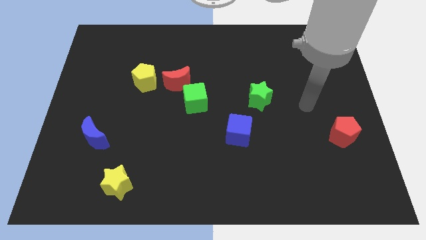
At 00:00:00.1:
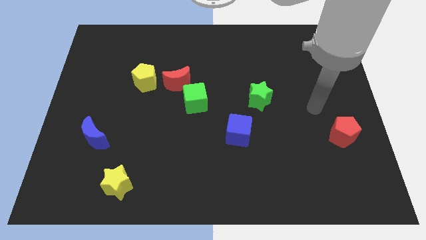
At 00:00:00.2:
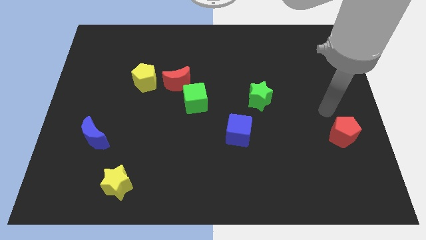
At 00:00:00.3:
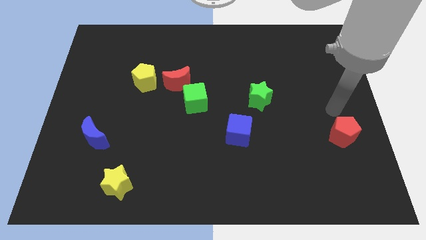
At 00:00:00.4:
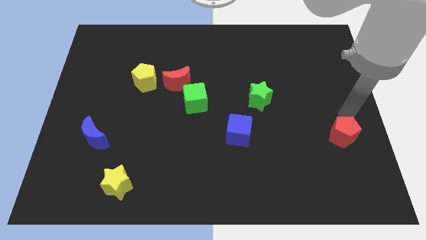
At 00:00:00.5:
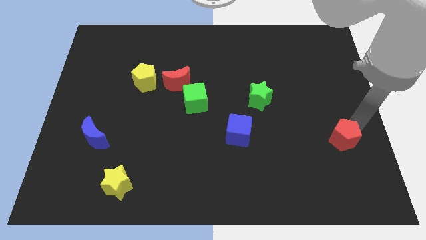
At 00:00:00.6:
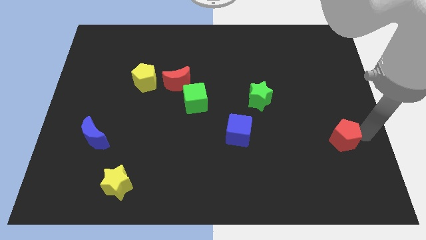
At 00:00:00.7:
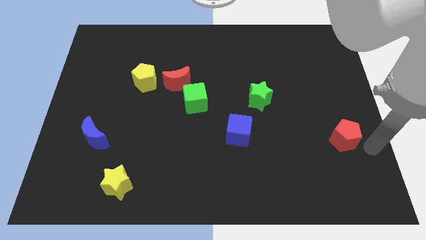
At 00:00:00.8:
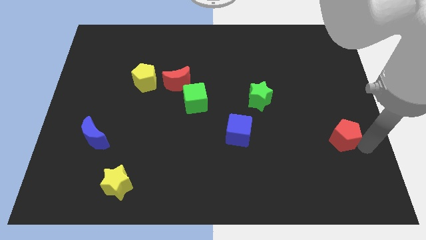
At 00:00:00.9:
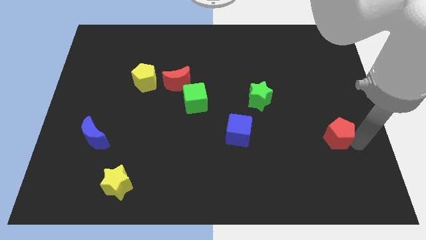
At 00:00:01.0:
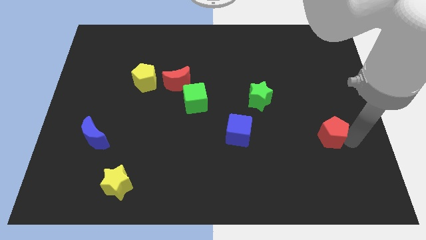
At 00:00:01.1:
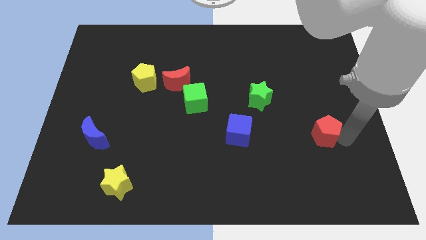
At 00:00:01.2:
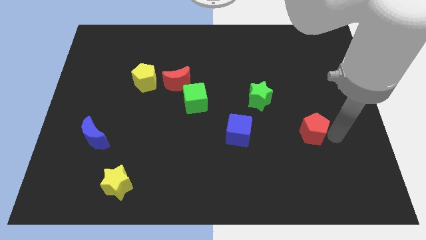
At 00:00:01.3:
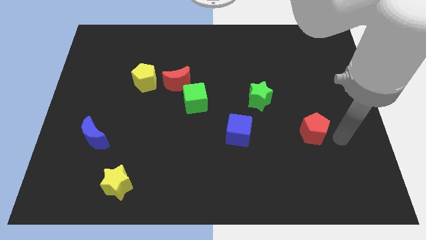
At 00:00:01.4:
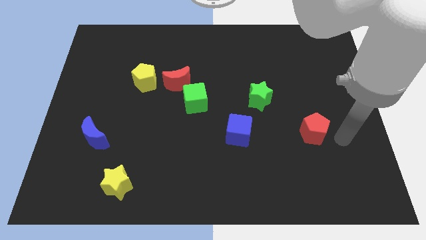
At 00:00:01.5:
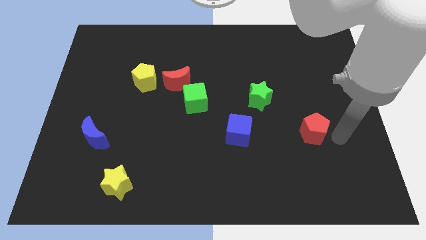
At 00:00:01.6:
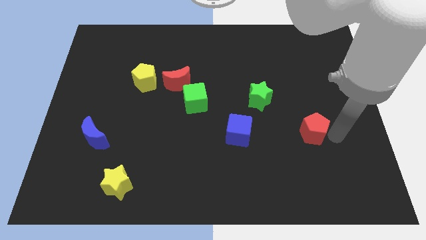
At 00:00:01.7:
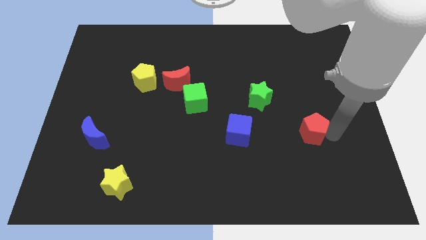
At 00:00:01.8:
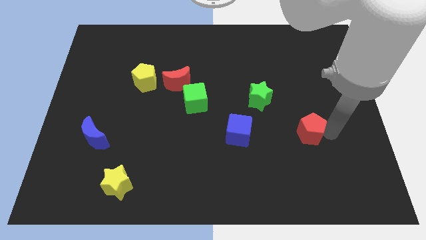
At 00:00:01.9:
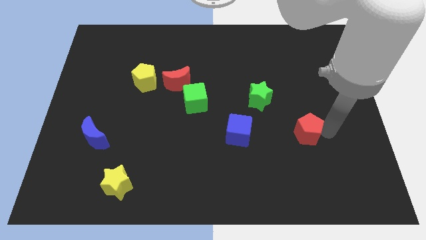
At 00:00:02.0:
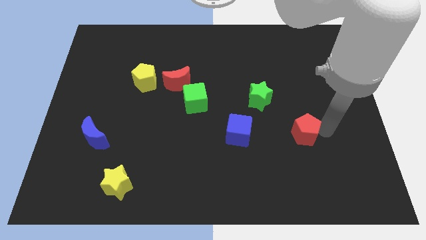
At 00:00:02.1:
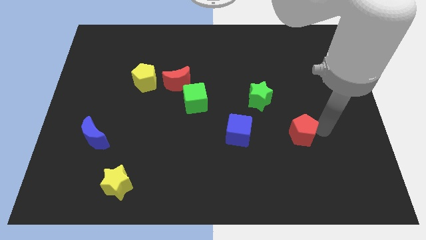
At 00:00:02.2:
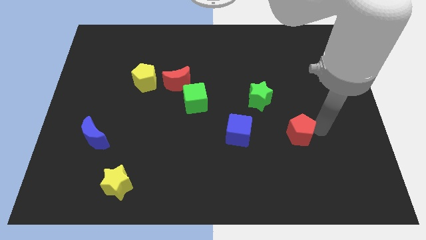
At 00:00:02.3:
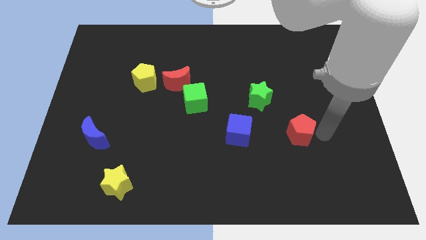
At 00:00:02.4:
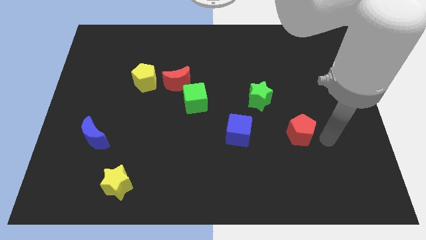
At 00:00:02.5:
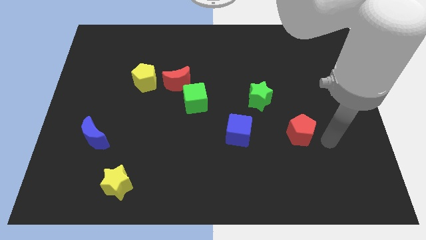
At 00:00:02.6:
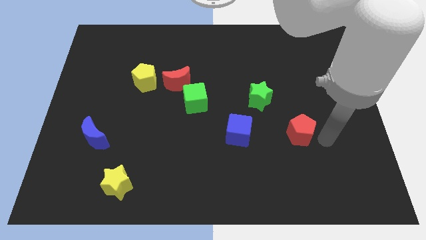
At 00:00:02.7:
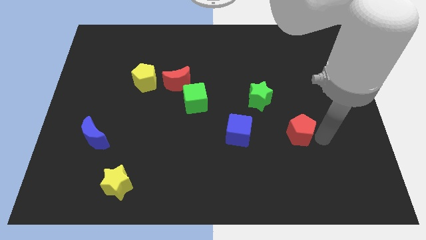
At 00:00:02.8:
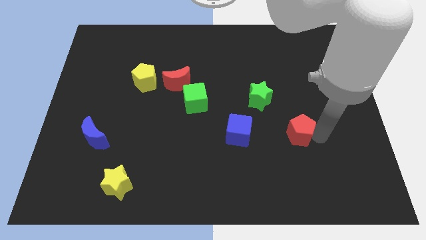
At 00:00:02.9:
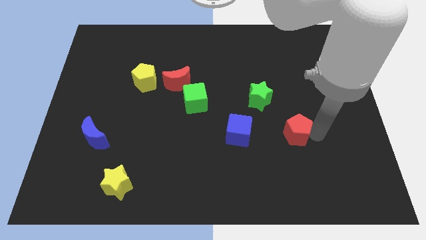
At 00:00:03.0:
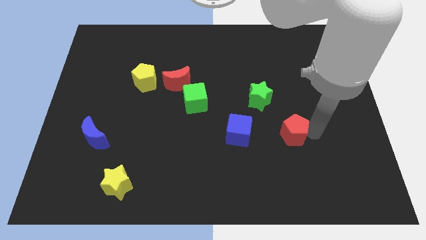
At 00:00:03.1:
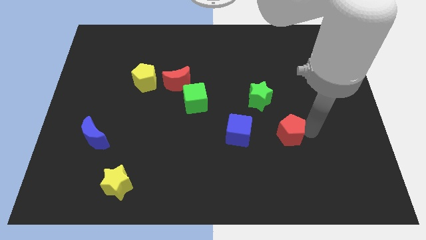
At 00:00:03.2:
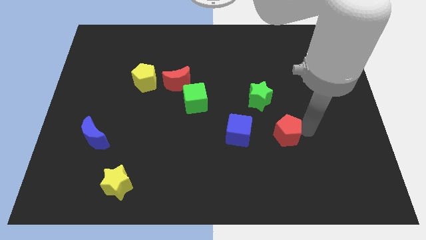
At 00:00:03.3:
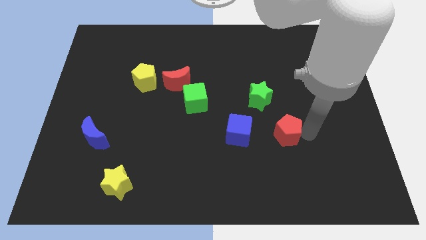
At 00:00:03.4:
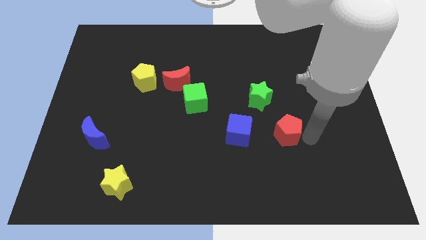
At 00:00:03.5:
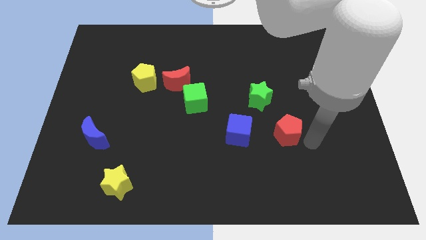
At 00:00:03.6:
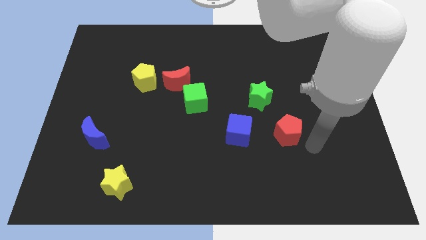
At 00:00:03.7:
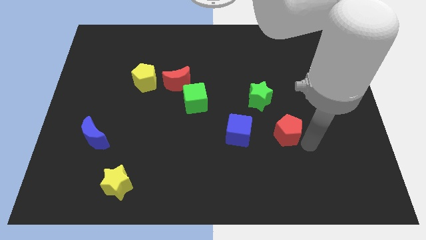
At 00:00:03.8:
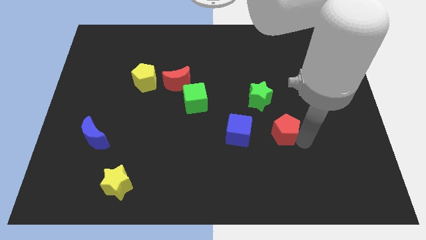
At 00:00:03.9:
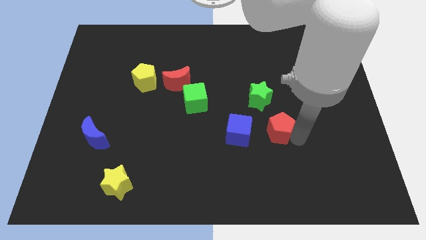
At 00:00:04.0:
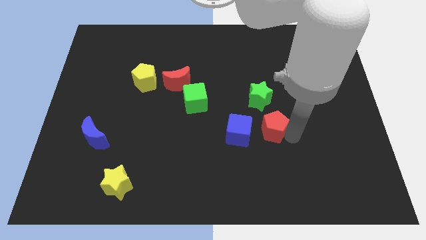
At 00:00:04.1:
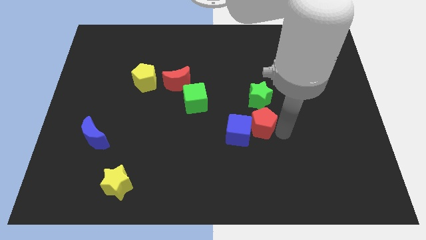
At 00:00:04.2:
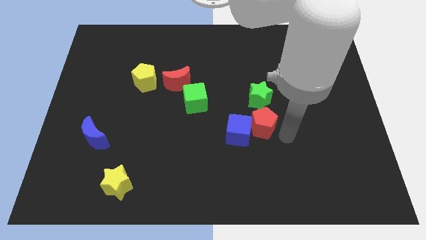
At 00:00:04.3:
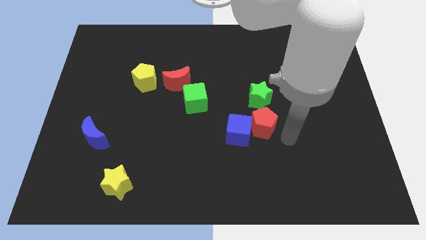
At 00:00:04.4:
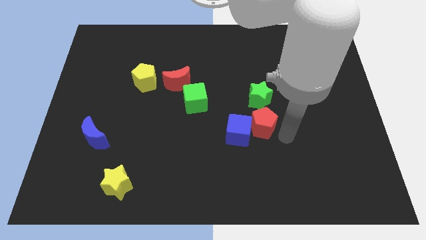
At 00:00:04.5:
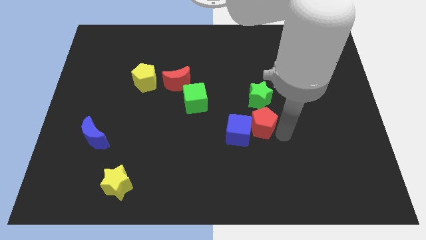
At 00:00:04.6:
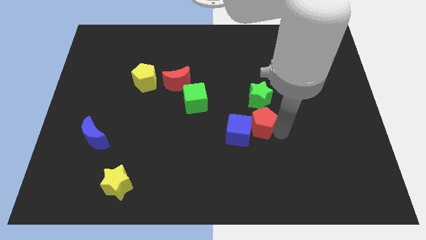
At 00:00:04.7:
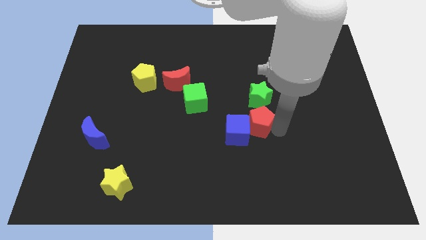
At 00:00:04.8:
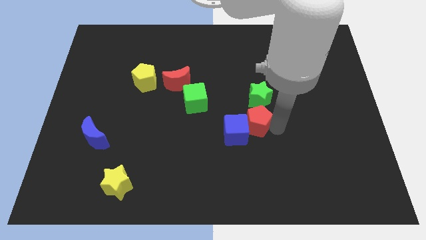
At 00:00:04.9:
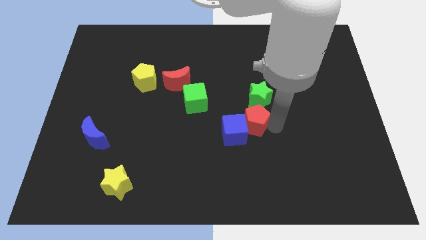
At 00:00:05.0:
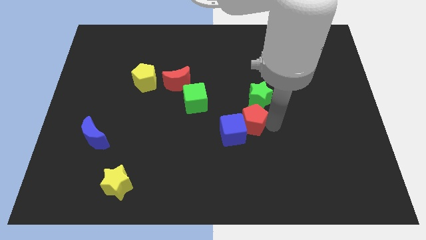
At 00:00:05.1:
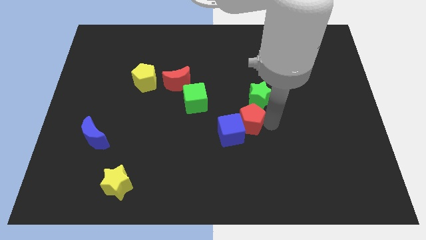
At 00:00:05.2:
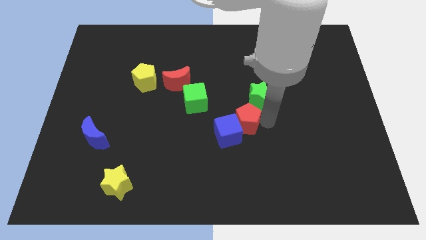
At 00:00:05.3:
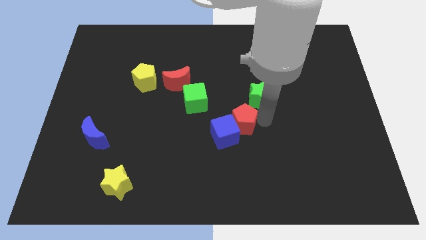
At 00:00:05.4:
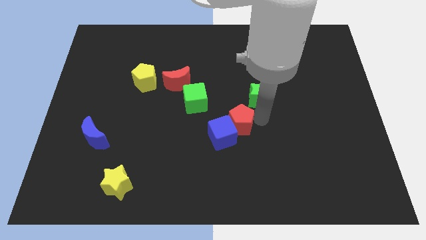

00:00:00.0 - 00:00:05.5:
push the red pentagon to the bottom right side of the green cube

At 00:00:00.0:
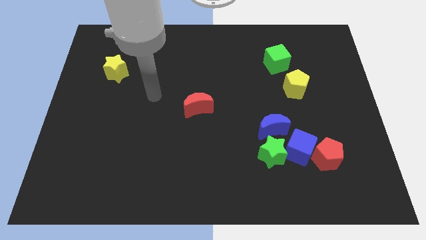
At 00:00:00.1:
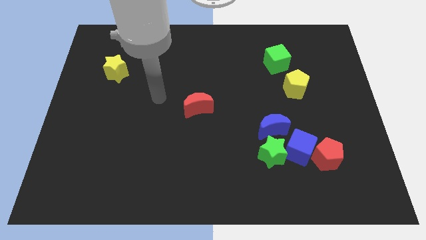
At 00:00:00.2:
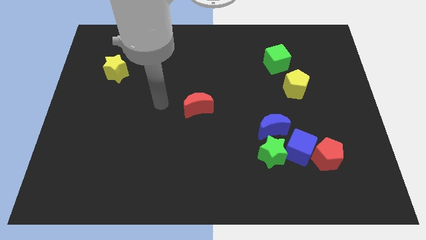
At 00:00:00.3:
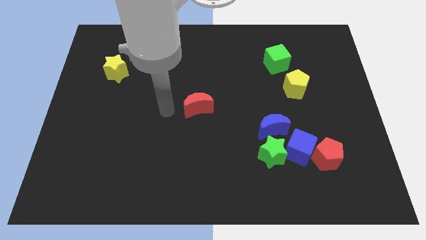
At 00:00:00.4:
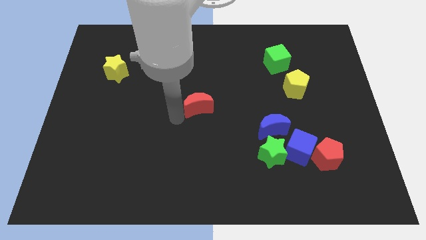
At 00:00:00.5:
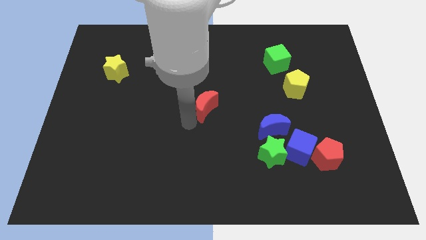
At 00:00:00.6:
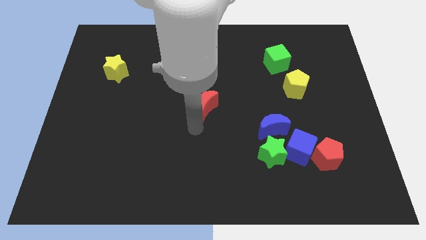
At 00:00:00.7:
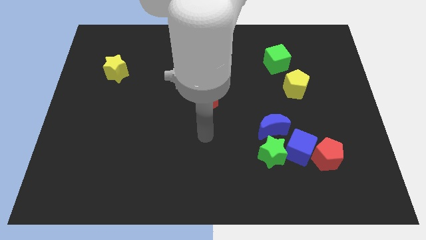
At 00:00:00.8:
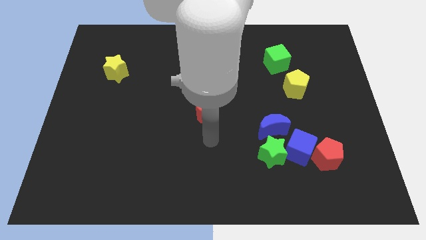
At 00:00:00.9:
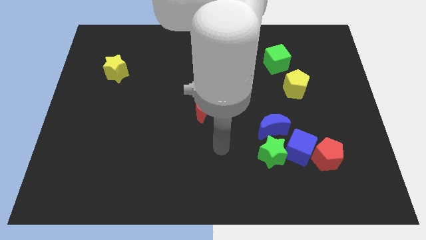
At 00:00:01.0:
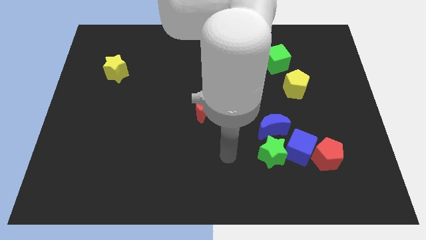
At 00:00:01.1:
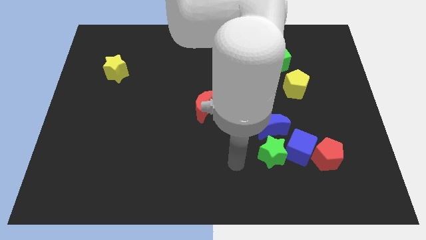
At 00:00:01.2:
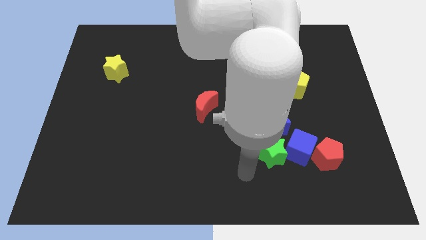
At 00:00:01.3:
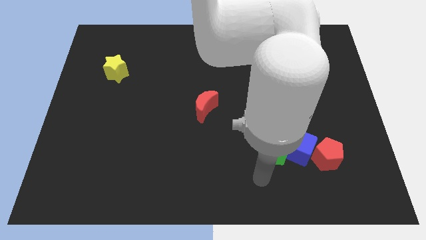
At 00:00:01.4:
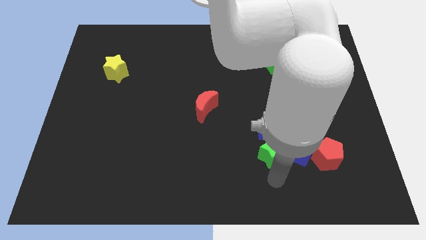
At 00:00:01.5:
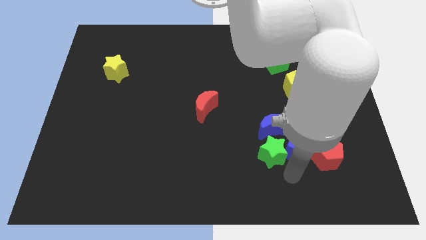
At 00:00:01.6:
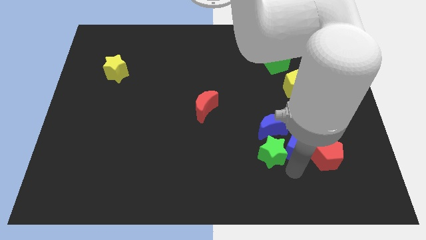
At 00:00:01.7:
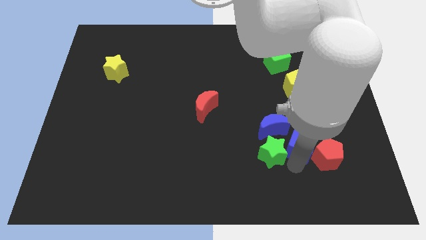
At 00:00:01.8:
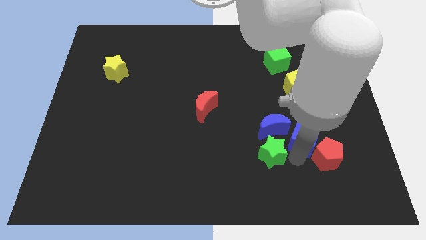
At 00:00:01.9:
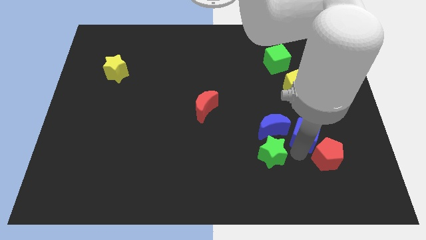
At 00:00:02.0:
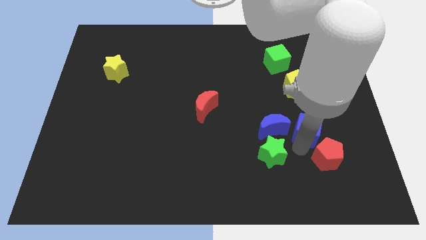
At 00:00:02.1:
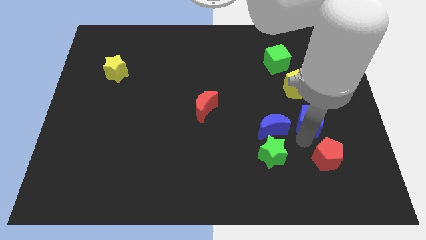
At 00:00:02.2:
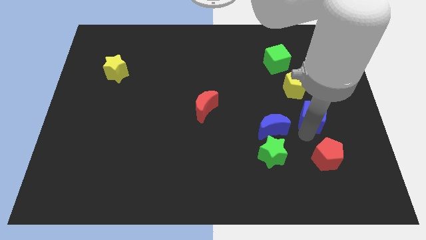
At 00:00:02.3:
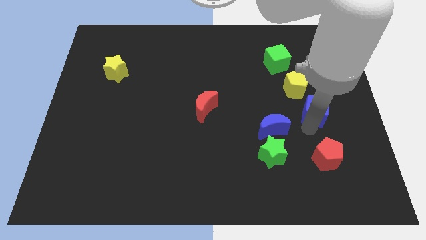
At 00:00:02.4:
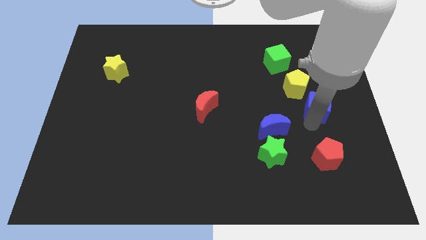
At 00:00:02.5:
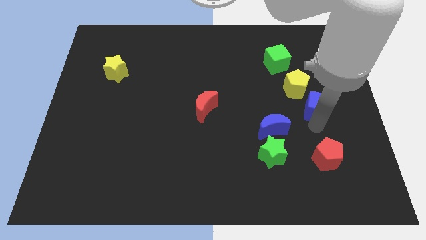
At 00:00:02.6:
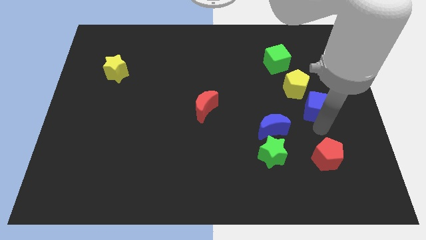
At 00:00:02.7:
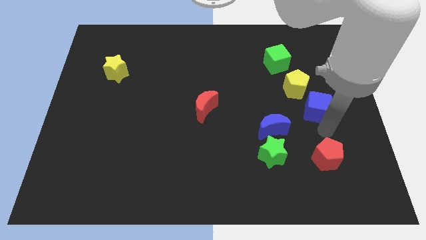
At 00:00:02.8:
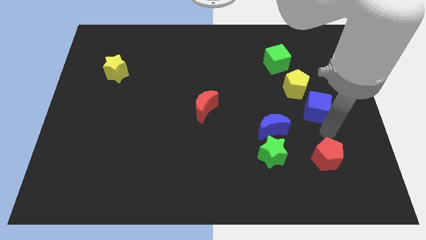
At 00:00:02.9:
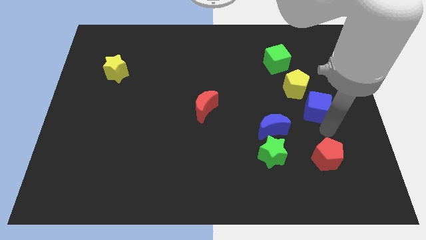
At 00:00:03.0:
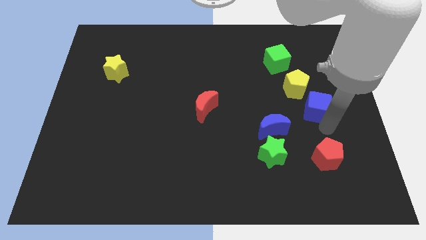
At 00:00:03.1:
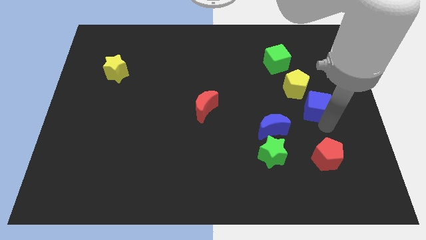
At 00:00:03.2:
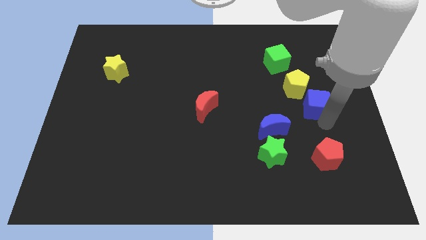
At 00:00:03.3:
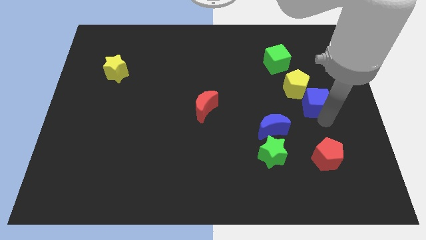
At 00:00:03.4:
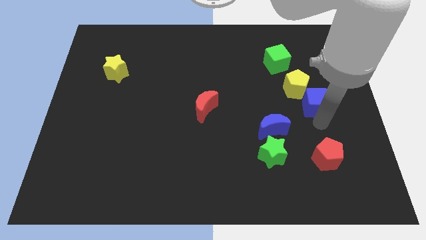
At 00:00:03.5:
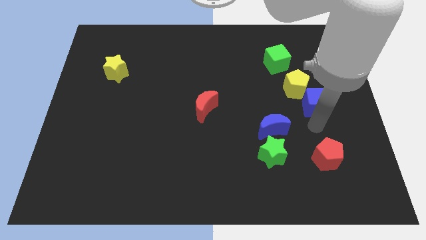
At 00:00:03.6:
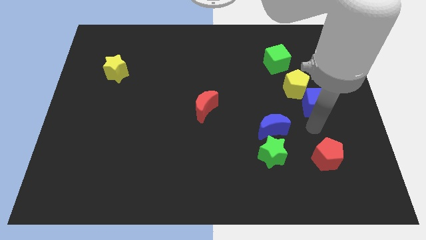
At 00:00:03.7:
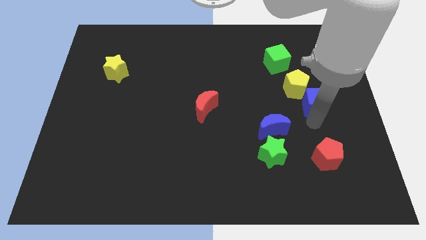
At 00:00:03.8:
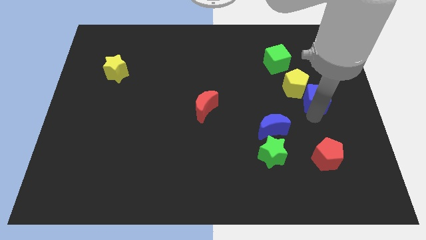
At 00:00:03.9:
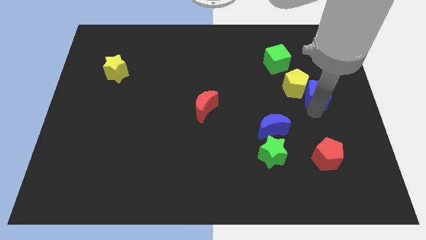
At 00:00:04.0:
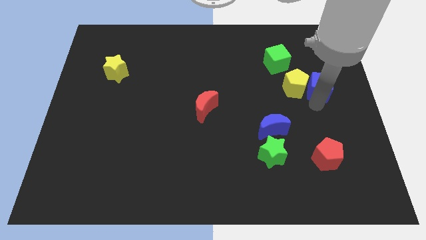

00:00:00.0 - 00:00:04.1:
put the blue cube diagonally up and to the right of the yellow pentagon
